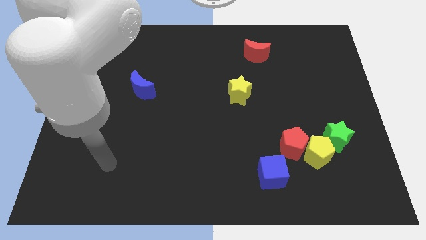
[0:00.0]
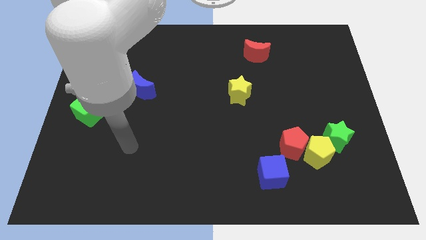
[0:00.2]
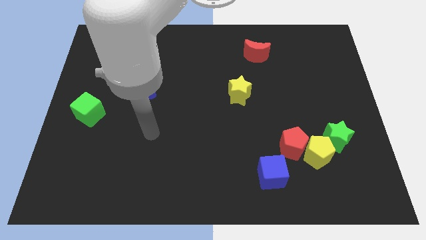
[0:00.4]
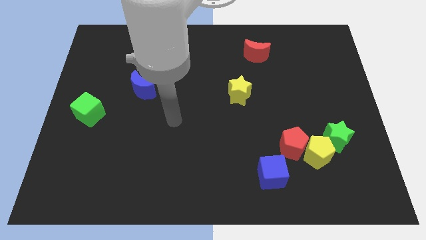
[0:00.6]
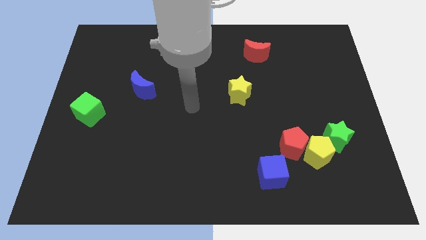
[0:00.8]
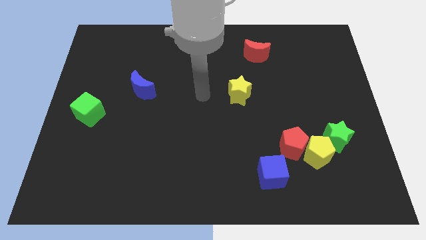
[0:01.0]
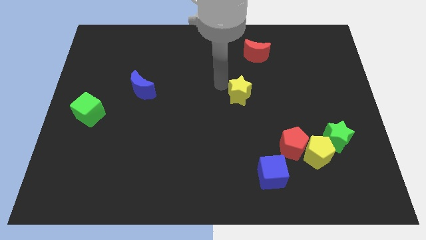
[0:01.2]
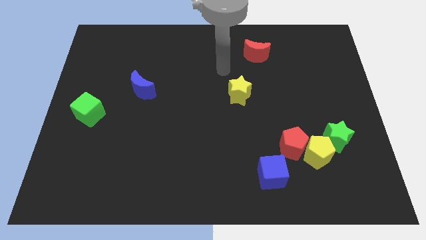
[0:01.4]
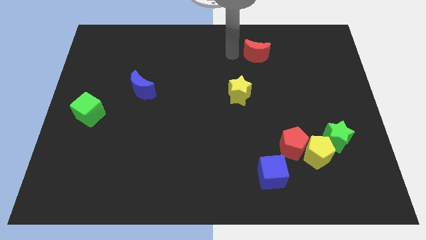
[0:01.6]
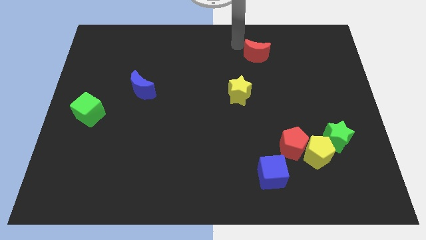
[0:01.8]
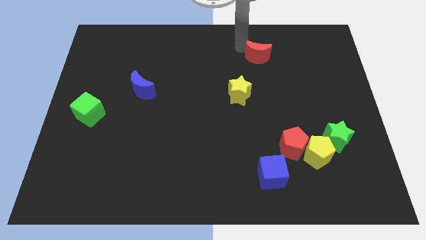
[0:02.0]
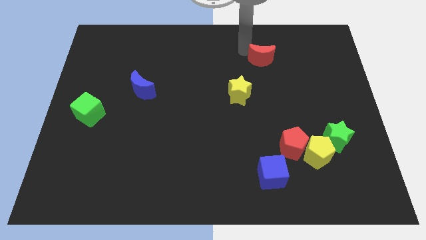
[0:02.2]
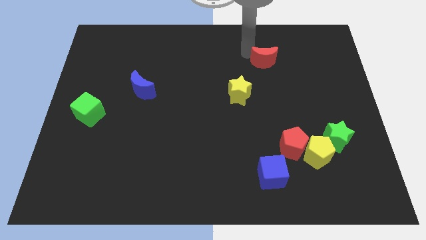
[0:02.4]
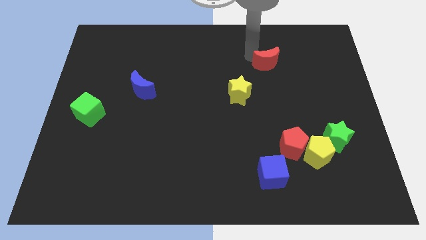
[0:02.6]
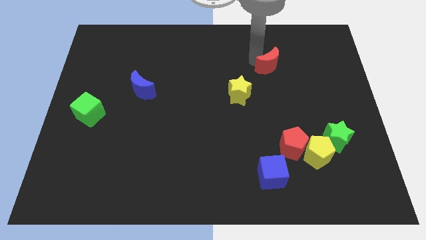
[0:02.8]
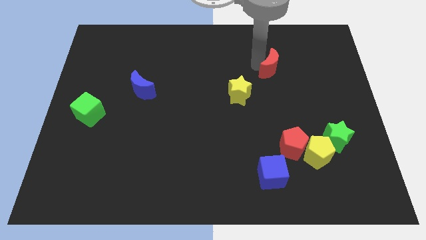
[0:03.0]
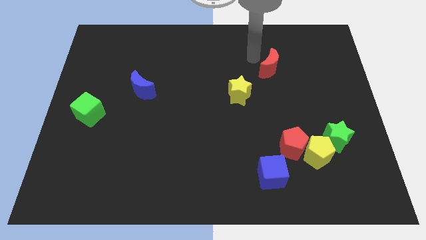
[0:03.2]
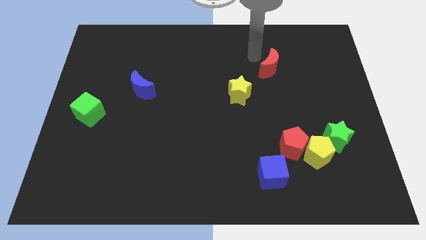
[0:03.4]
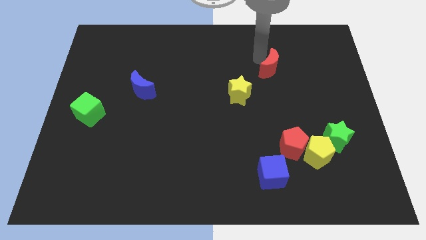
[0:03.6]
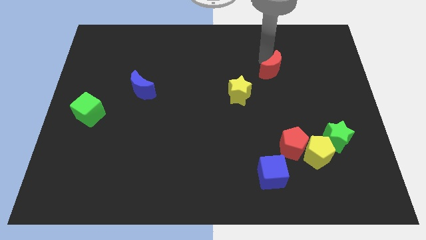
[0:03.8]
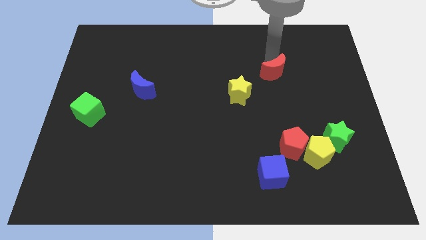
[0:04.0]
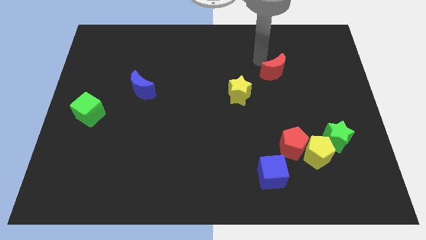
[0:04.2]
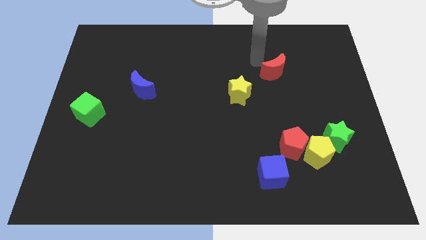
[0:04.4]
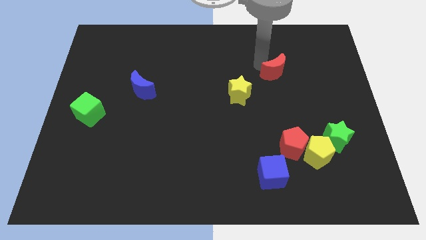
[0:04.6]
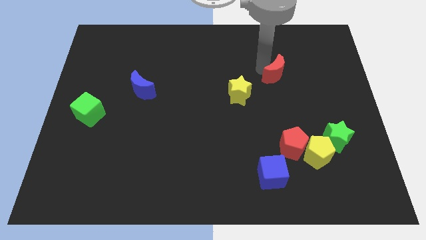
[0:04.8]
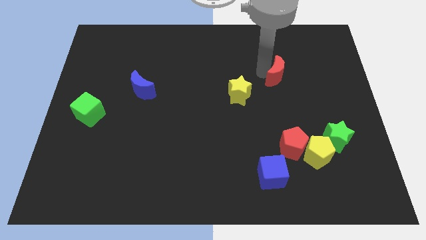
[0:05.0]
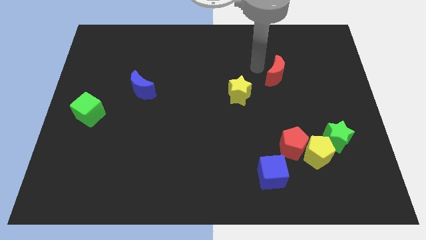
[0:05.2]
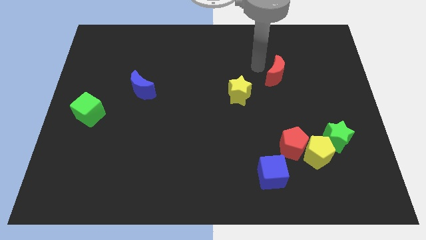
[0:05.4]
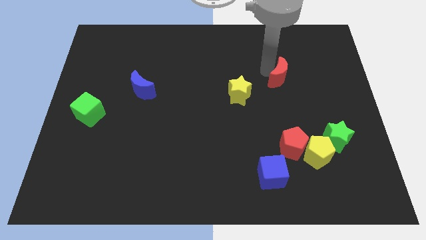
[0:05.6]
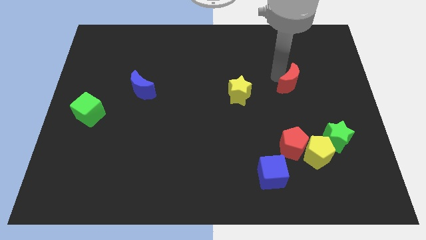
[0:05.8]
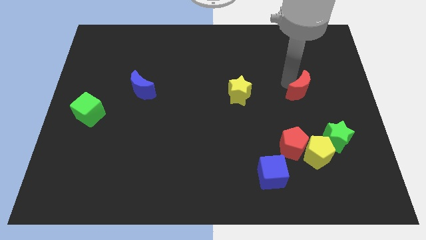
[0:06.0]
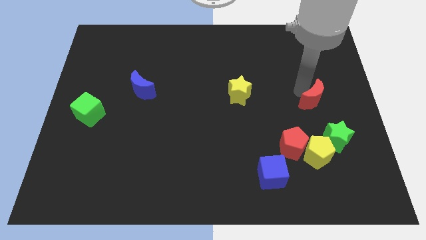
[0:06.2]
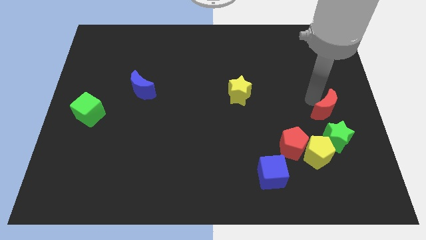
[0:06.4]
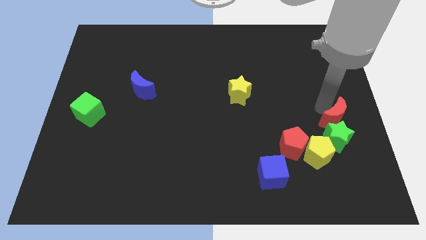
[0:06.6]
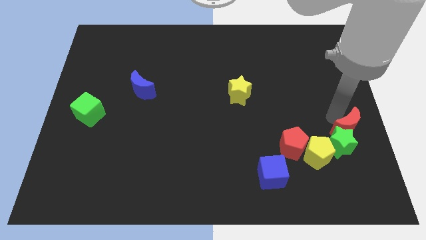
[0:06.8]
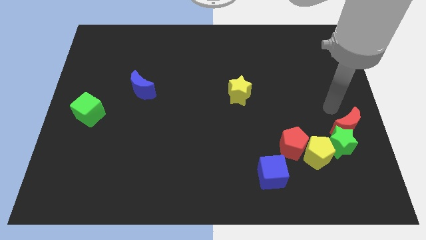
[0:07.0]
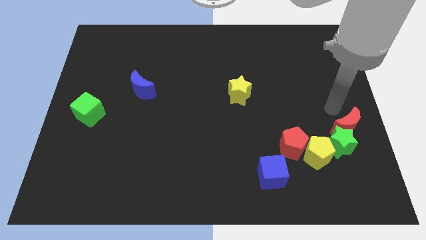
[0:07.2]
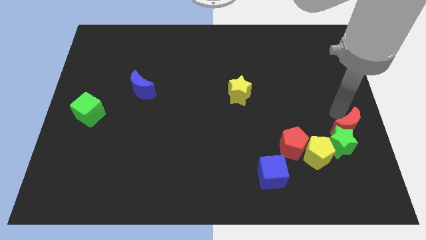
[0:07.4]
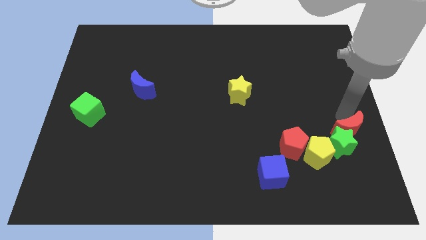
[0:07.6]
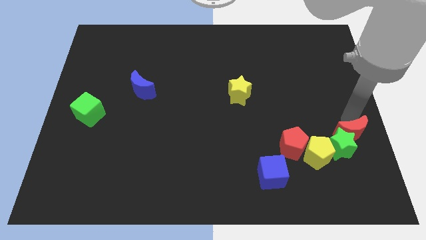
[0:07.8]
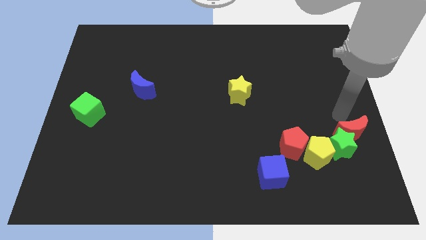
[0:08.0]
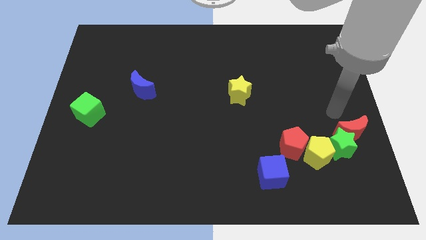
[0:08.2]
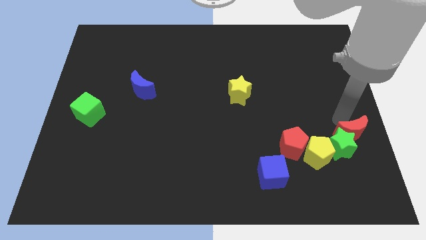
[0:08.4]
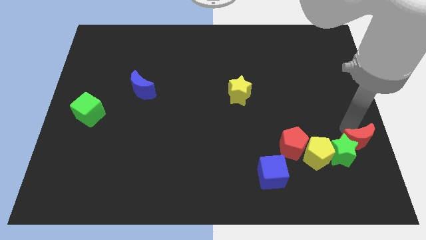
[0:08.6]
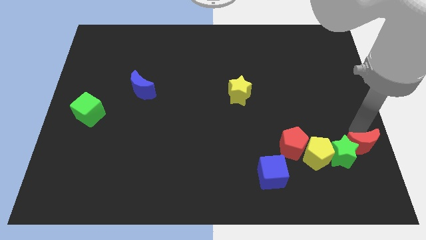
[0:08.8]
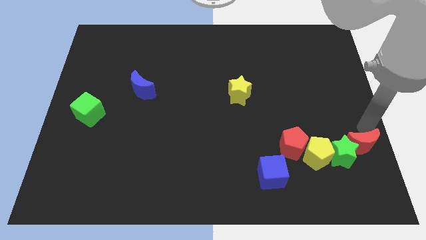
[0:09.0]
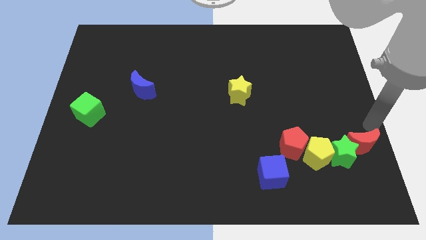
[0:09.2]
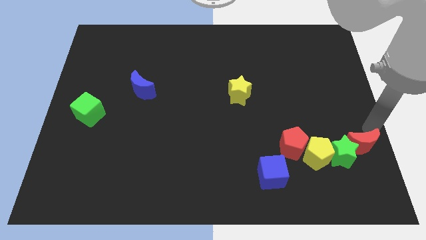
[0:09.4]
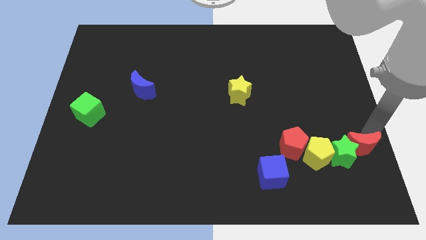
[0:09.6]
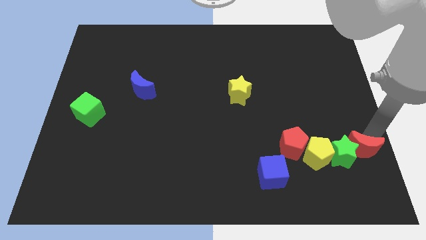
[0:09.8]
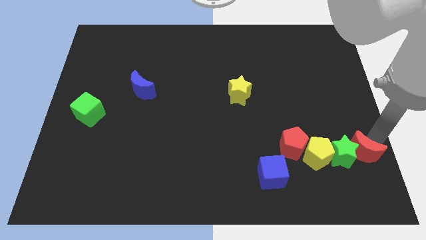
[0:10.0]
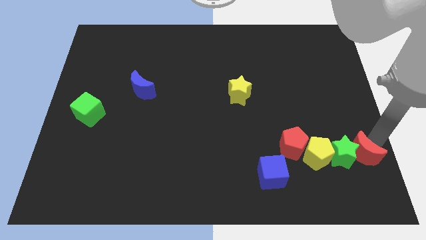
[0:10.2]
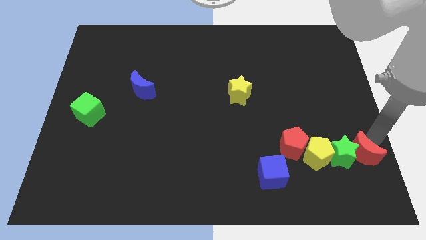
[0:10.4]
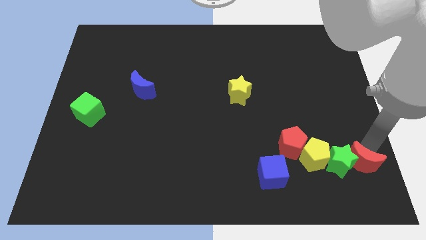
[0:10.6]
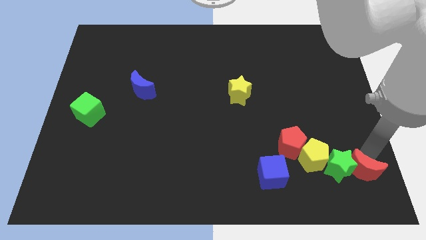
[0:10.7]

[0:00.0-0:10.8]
push the red moon to the bottom right of the yellow pentagon

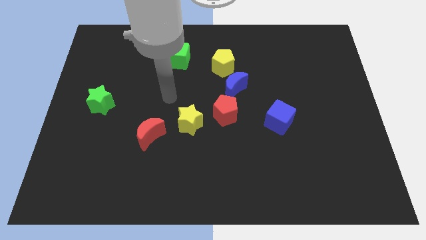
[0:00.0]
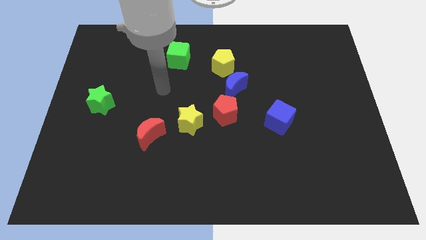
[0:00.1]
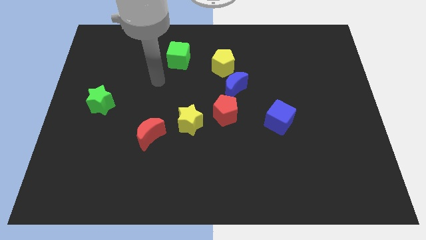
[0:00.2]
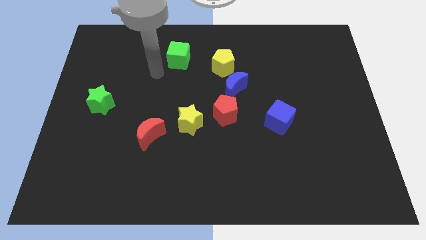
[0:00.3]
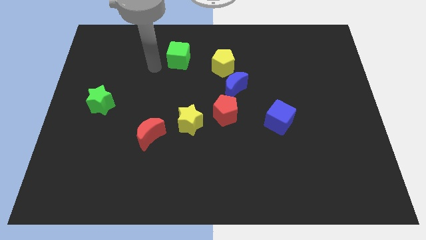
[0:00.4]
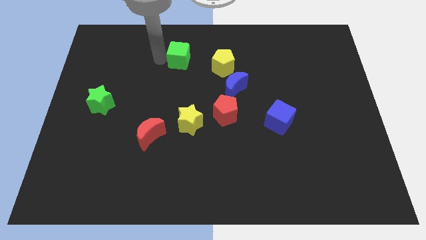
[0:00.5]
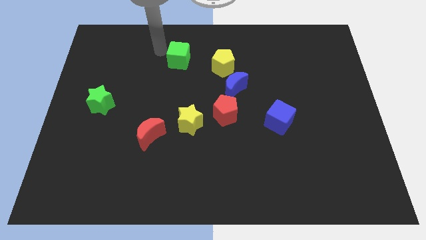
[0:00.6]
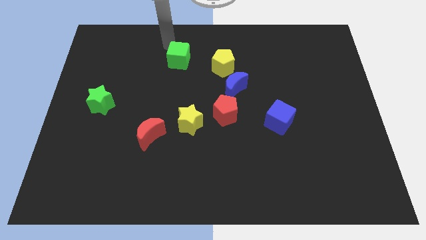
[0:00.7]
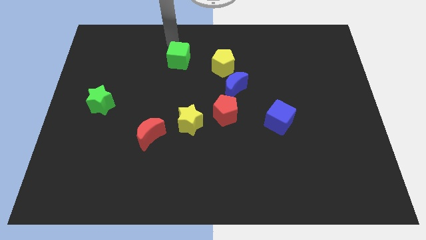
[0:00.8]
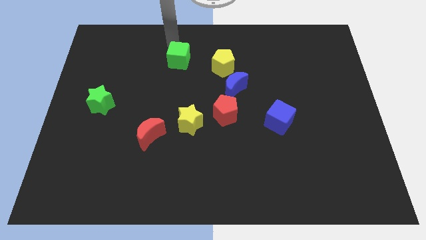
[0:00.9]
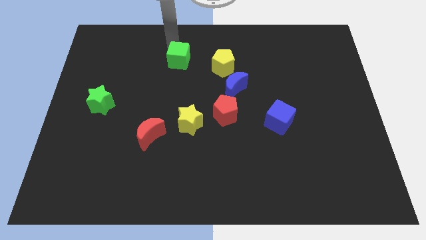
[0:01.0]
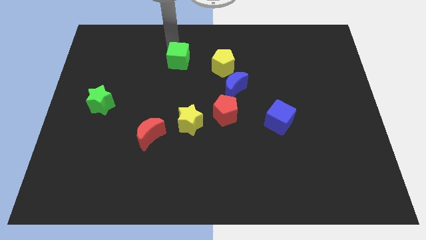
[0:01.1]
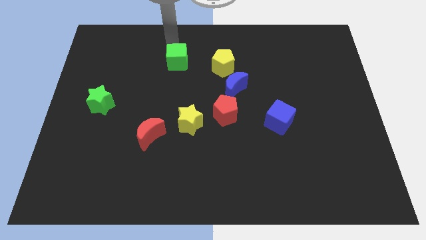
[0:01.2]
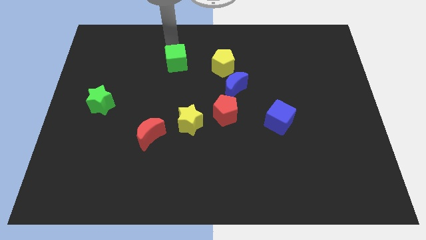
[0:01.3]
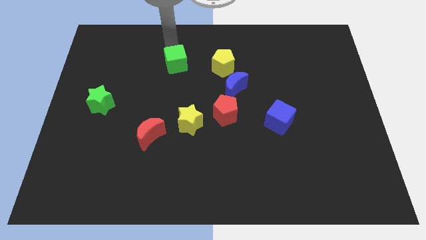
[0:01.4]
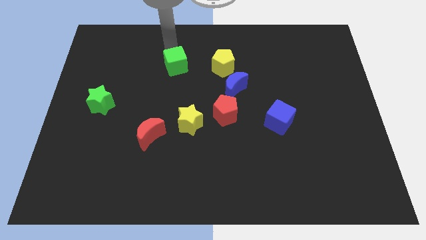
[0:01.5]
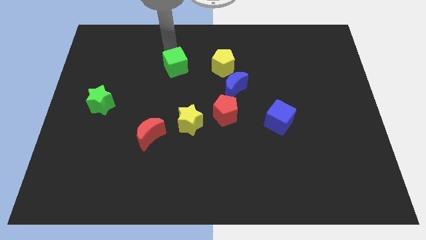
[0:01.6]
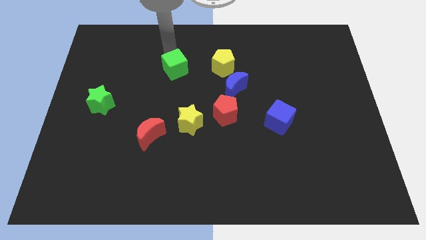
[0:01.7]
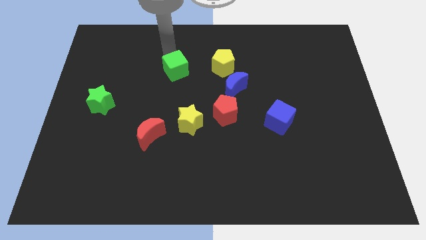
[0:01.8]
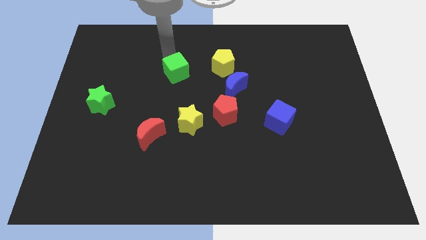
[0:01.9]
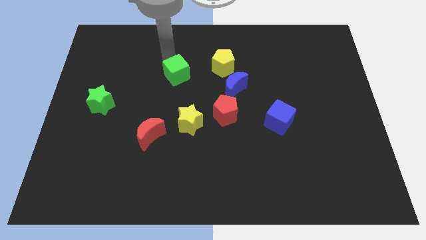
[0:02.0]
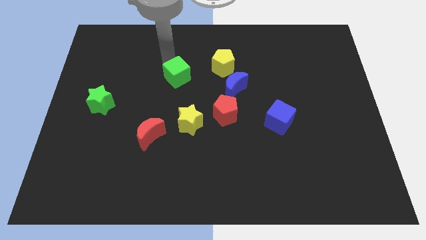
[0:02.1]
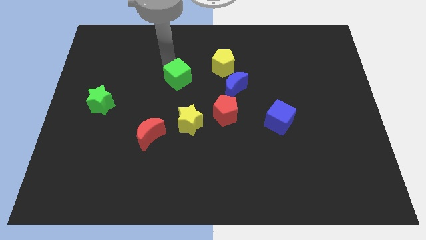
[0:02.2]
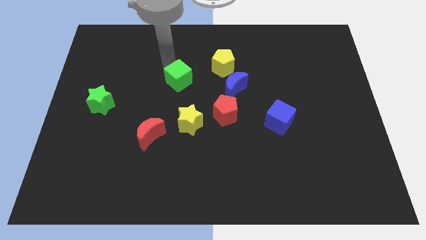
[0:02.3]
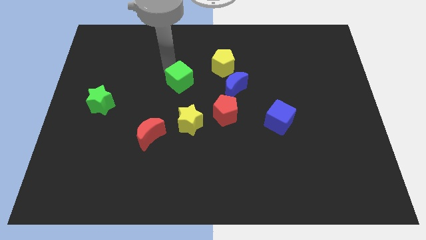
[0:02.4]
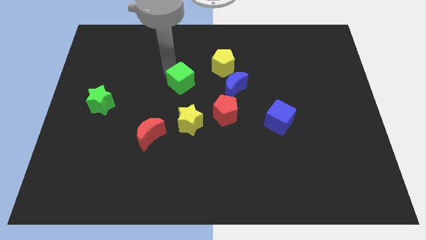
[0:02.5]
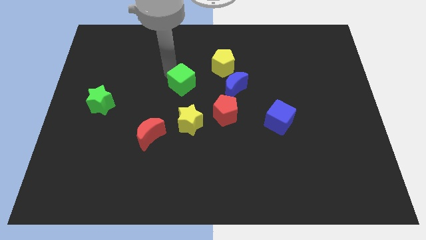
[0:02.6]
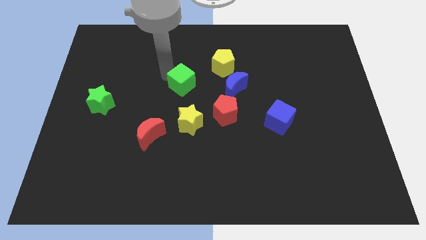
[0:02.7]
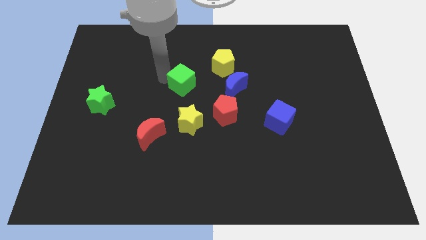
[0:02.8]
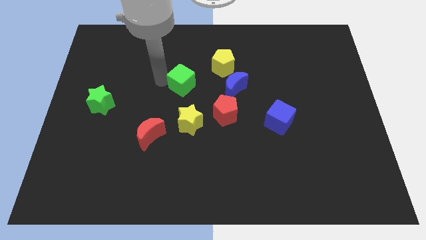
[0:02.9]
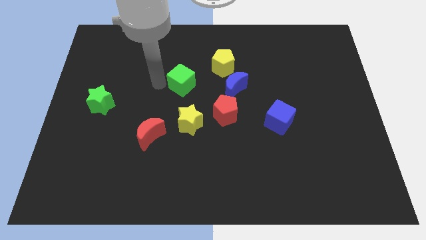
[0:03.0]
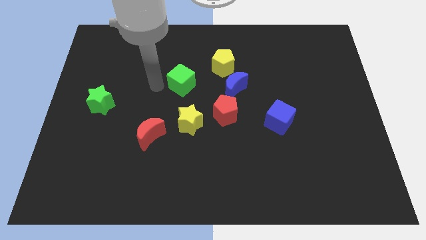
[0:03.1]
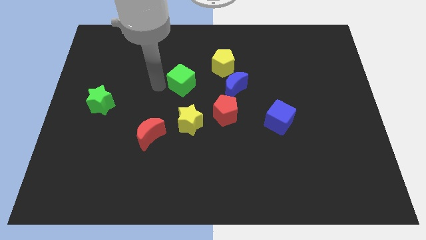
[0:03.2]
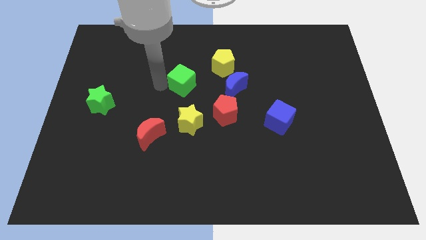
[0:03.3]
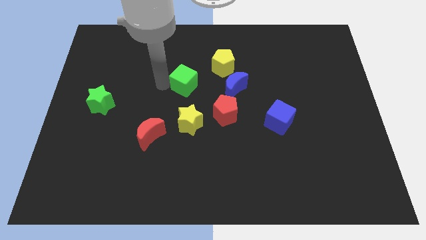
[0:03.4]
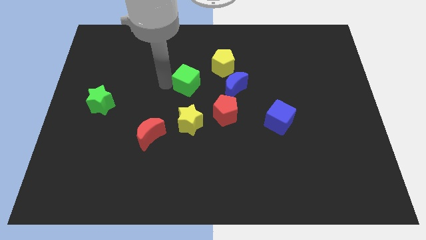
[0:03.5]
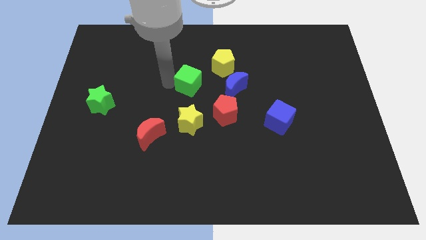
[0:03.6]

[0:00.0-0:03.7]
put the green cube to the top left side of the red pentagon
